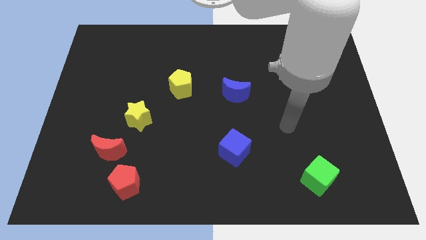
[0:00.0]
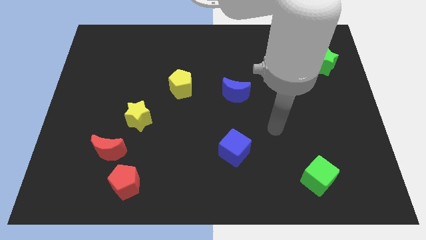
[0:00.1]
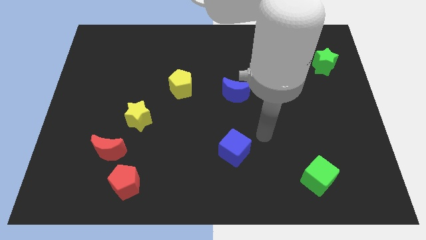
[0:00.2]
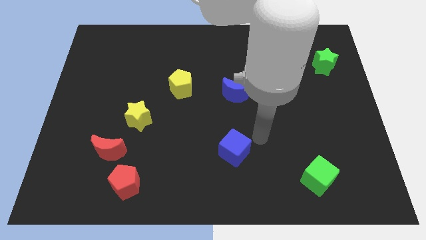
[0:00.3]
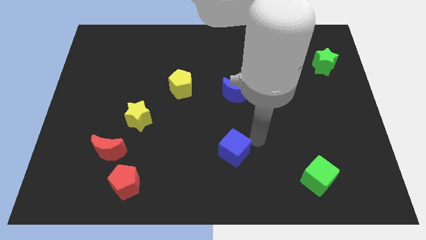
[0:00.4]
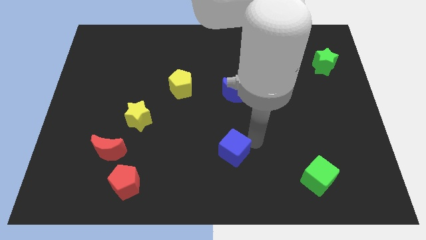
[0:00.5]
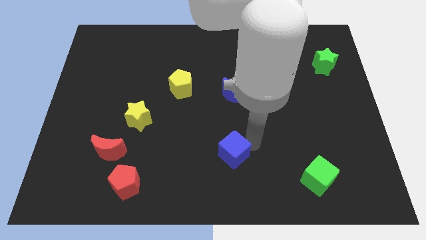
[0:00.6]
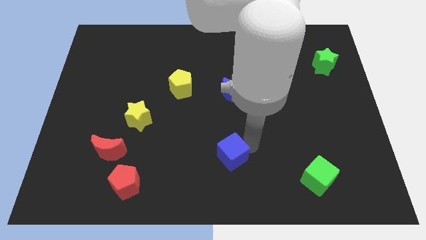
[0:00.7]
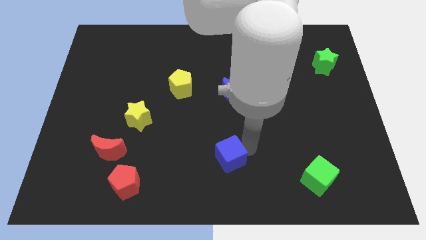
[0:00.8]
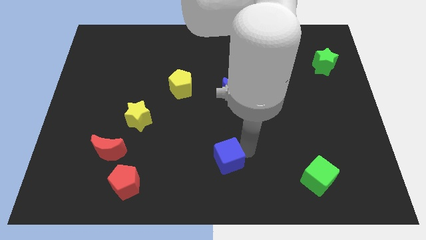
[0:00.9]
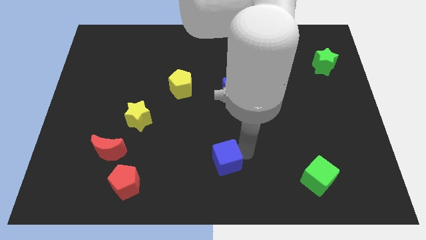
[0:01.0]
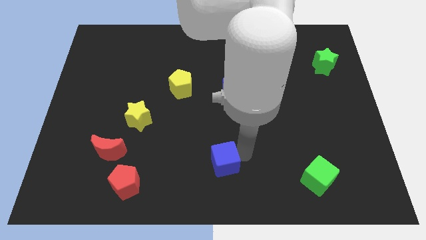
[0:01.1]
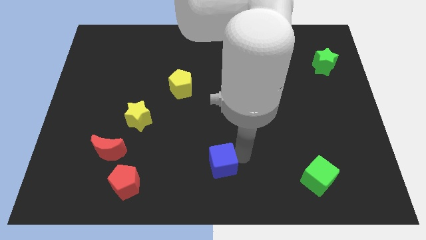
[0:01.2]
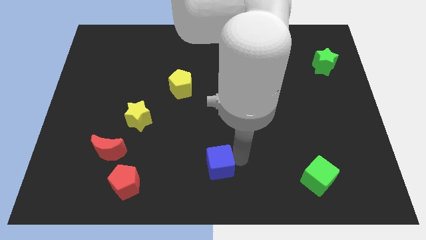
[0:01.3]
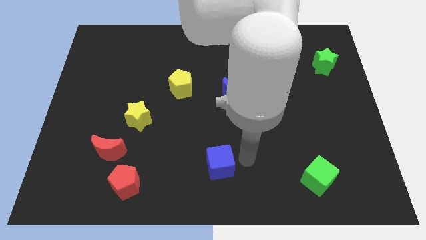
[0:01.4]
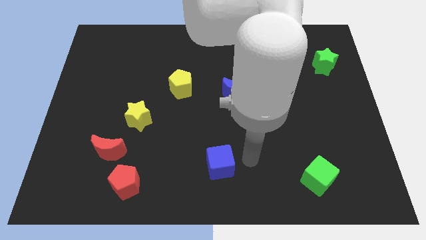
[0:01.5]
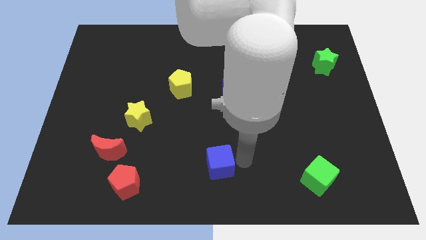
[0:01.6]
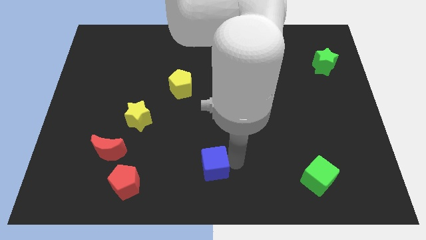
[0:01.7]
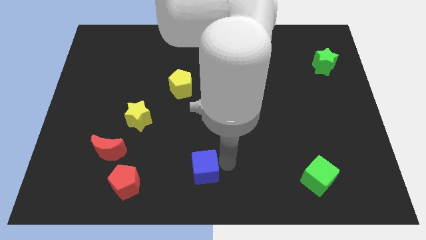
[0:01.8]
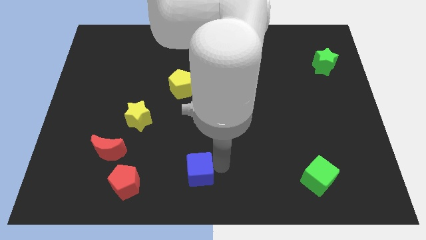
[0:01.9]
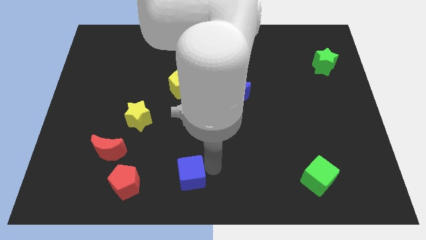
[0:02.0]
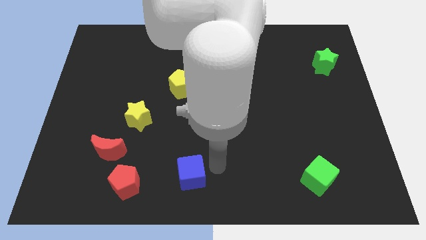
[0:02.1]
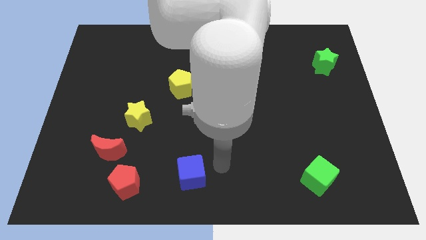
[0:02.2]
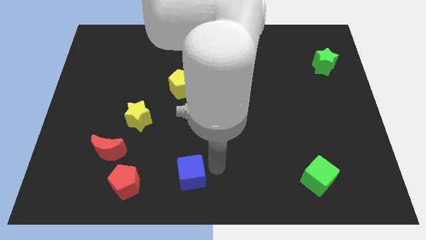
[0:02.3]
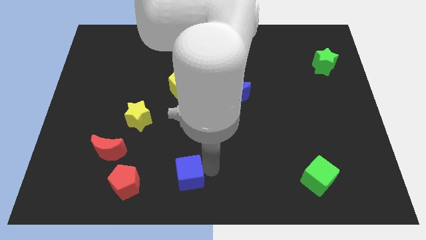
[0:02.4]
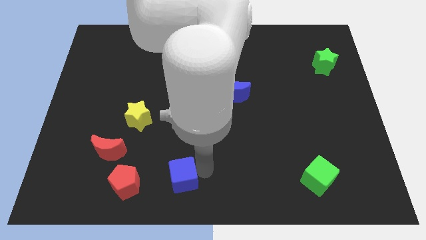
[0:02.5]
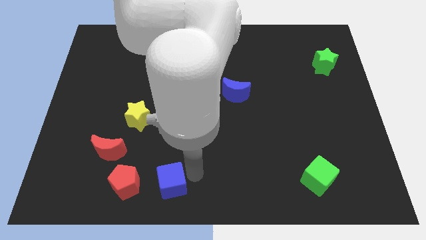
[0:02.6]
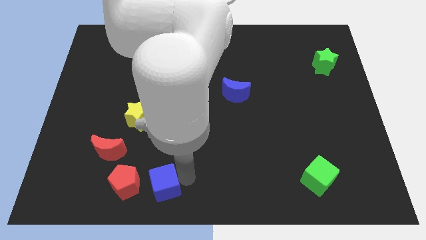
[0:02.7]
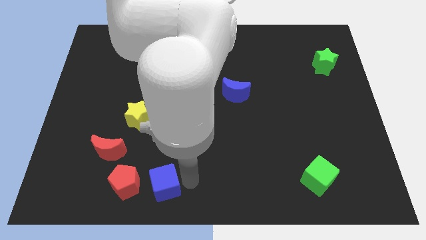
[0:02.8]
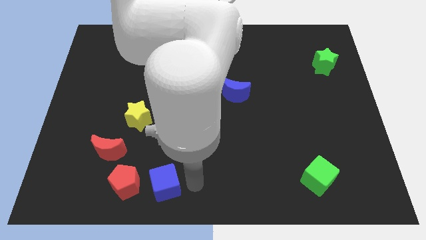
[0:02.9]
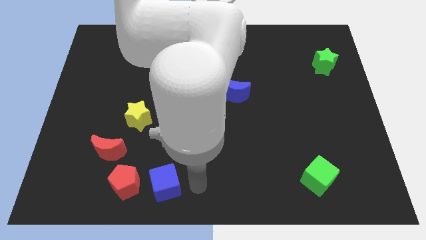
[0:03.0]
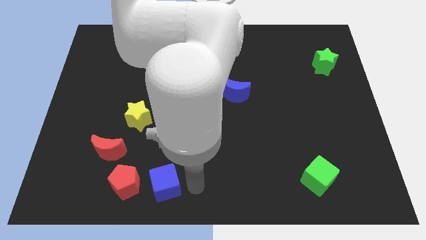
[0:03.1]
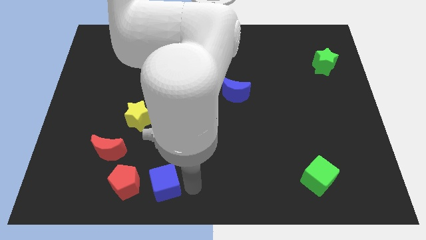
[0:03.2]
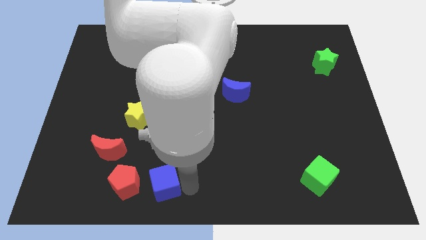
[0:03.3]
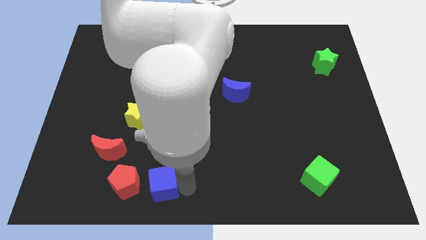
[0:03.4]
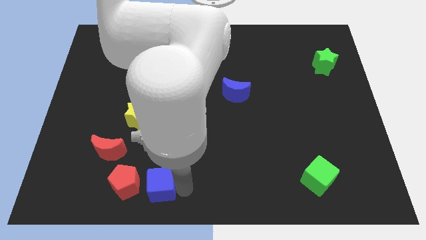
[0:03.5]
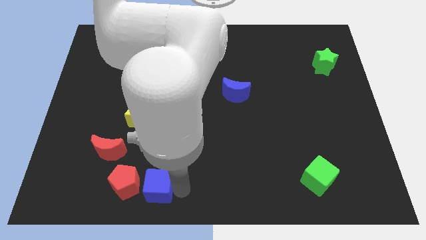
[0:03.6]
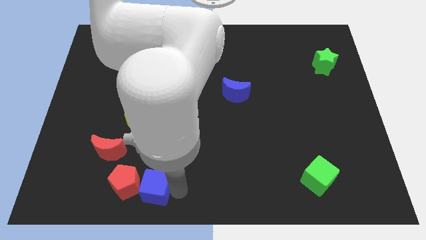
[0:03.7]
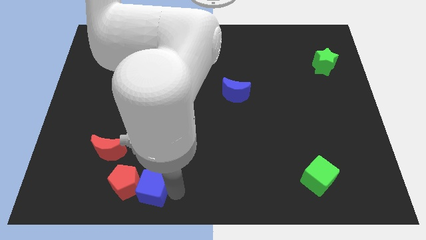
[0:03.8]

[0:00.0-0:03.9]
move the blue cube next to the red pentagon

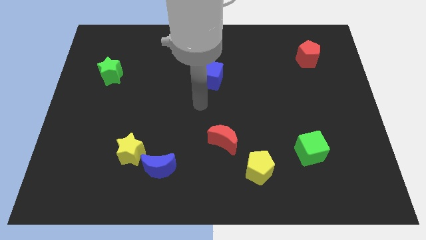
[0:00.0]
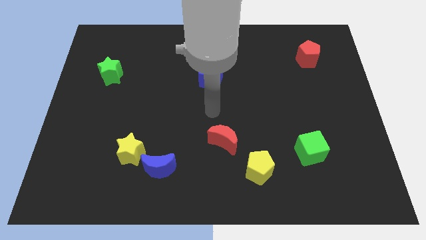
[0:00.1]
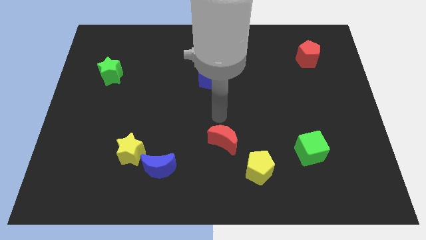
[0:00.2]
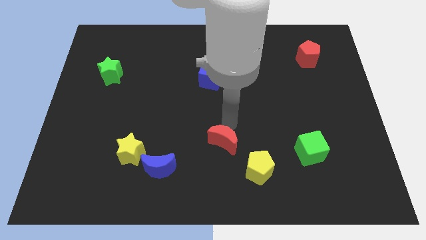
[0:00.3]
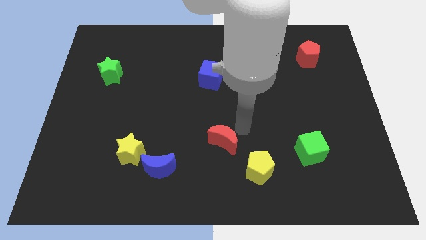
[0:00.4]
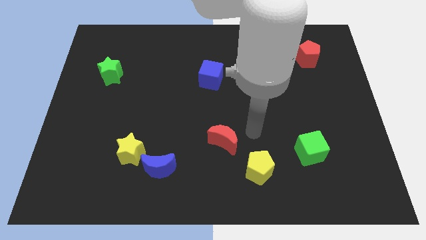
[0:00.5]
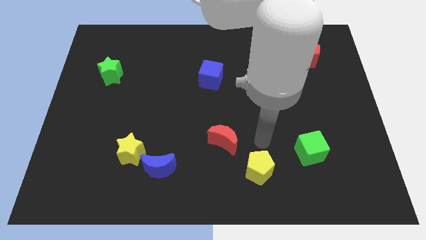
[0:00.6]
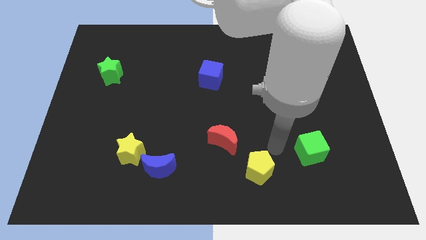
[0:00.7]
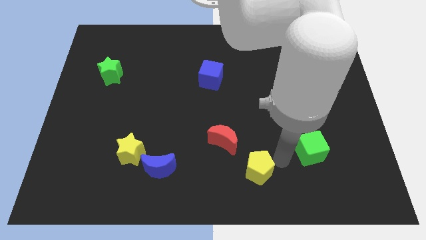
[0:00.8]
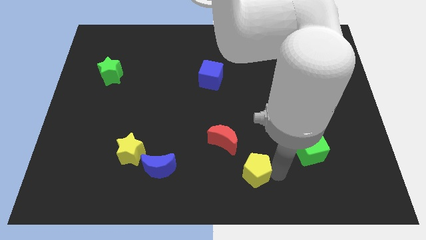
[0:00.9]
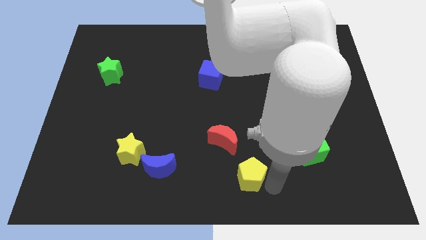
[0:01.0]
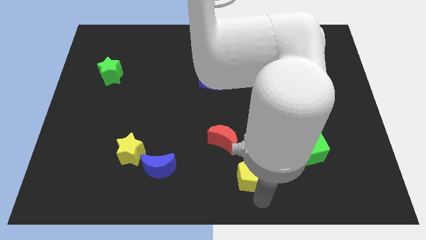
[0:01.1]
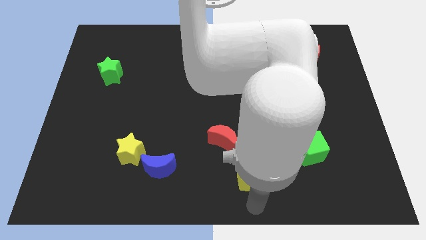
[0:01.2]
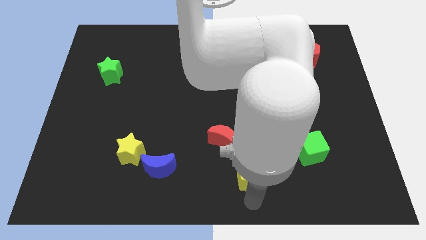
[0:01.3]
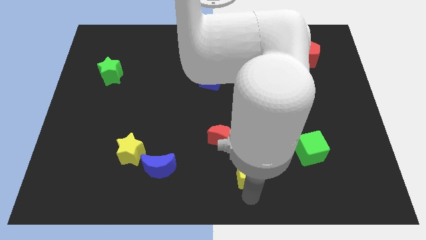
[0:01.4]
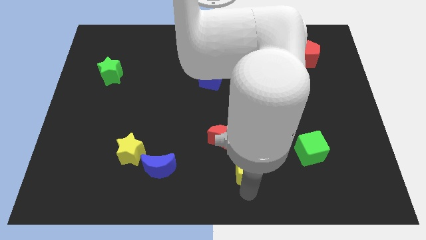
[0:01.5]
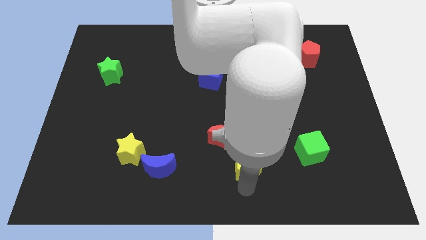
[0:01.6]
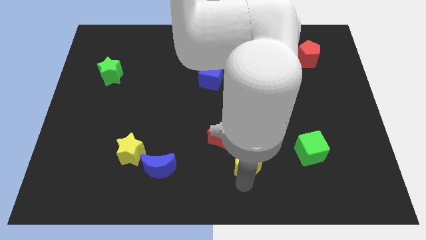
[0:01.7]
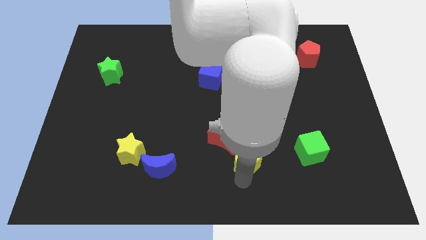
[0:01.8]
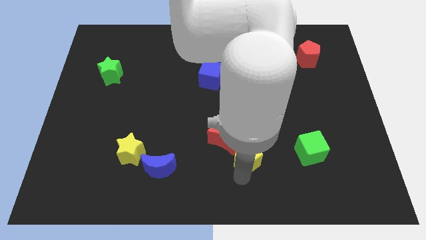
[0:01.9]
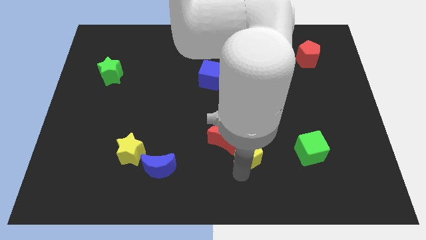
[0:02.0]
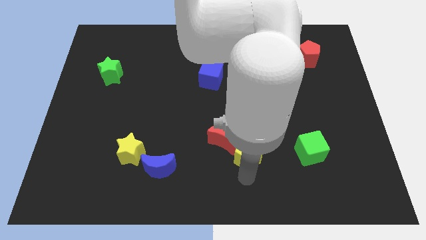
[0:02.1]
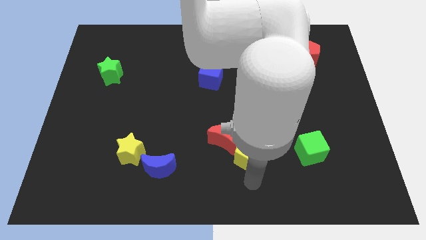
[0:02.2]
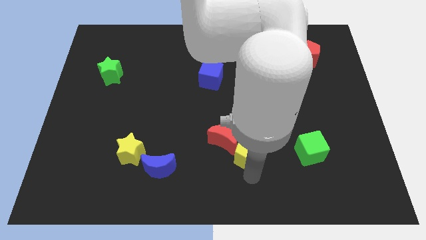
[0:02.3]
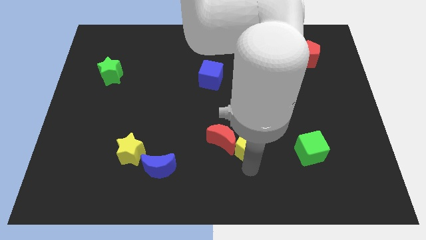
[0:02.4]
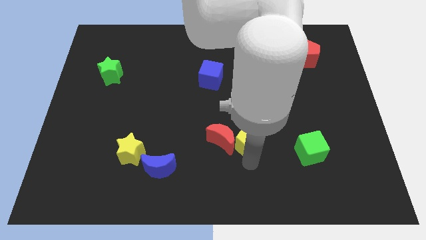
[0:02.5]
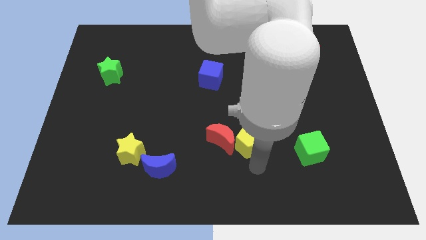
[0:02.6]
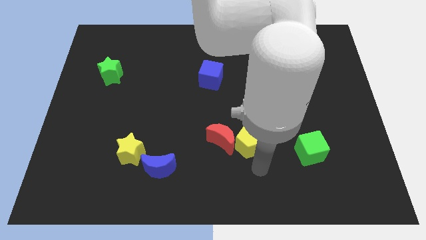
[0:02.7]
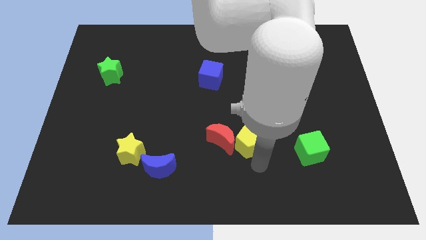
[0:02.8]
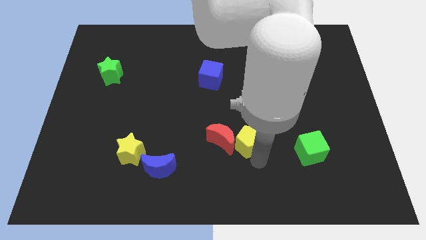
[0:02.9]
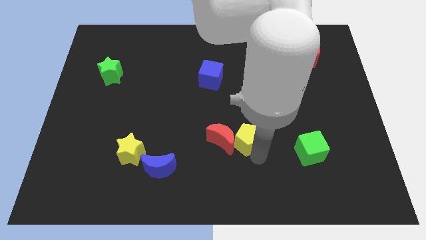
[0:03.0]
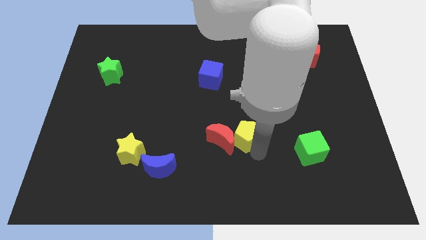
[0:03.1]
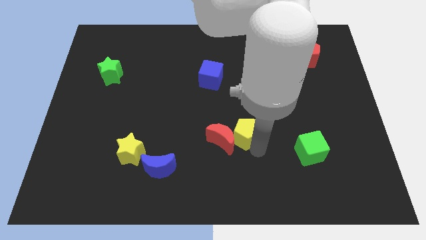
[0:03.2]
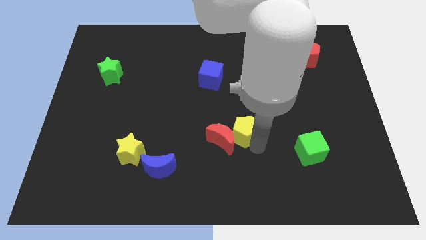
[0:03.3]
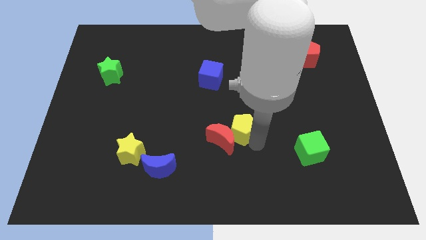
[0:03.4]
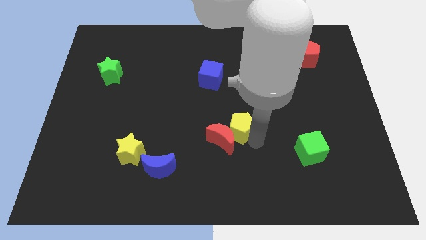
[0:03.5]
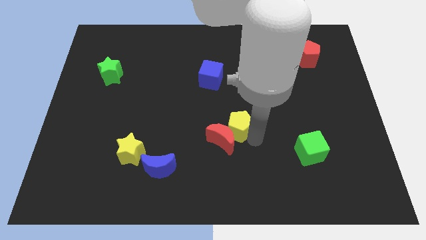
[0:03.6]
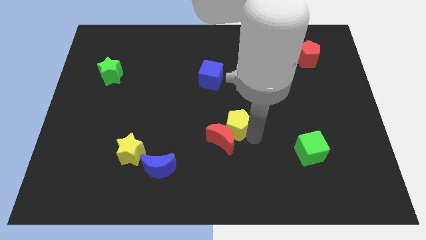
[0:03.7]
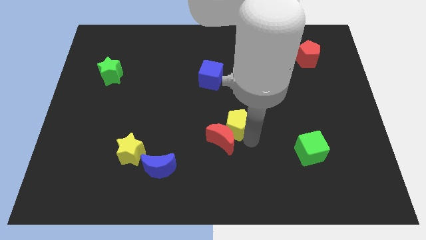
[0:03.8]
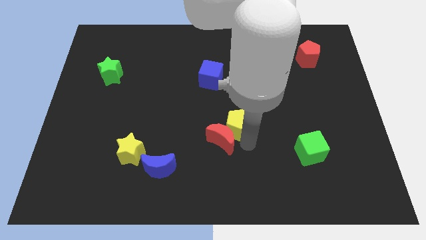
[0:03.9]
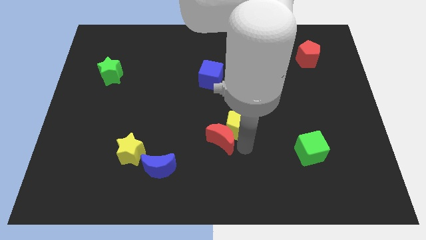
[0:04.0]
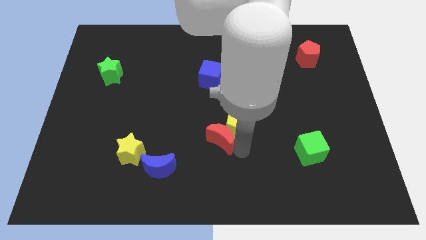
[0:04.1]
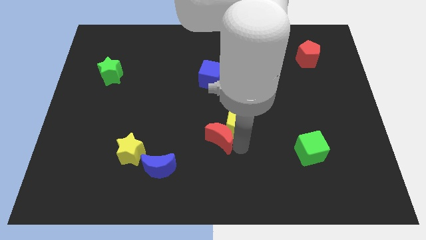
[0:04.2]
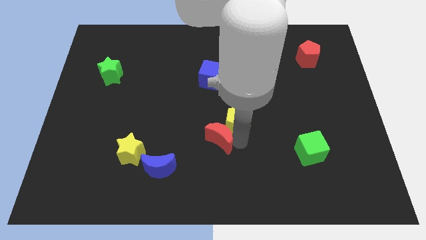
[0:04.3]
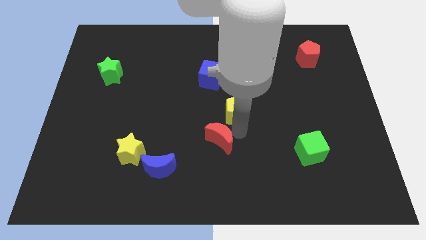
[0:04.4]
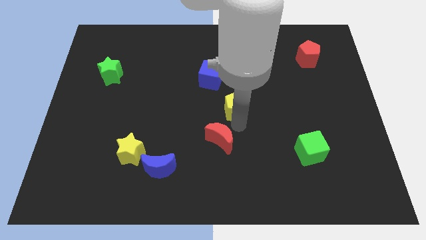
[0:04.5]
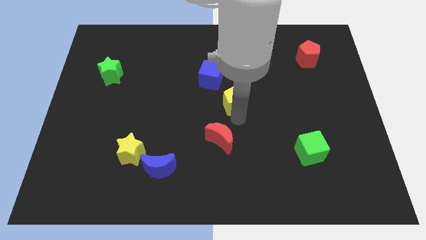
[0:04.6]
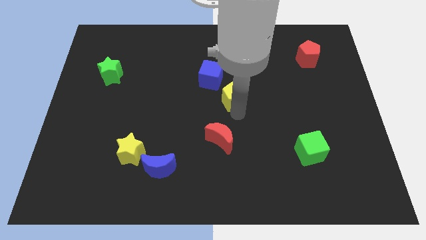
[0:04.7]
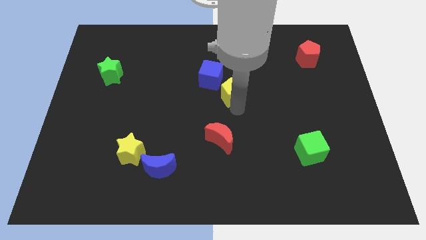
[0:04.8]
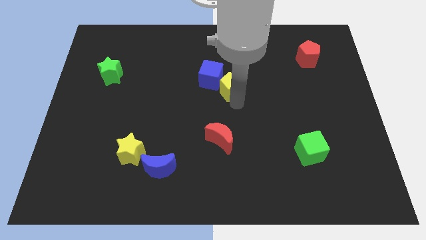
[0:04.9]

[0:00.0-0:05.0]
slide the yellow pentagon close to the blue cube
